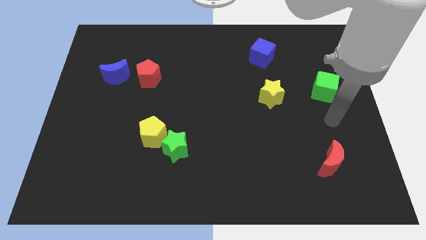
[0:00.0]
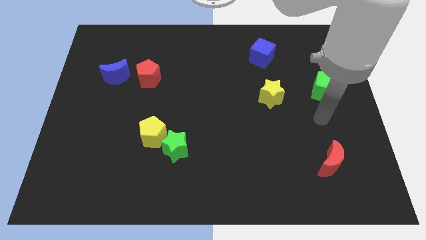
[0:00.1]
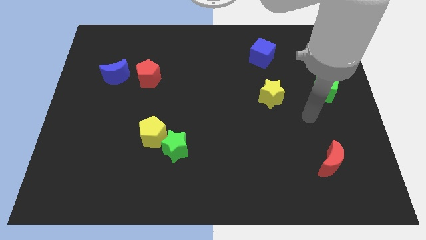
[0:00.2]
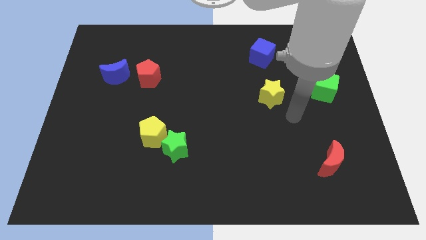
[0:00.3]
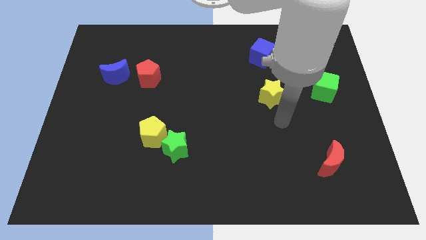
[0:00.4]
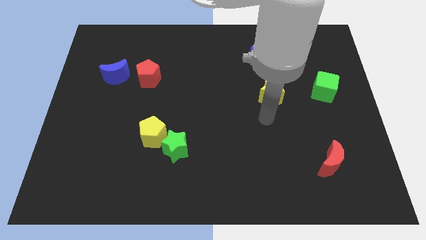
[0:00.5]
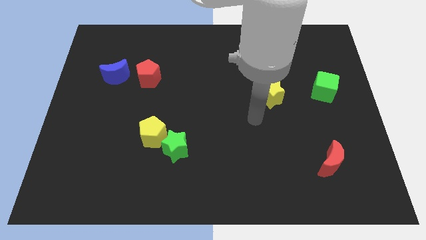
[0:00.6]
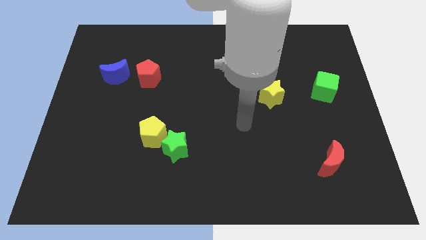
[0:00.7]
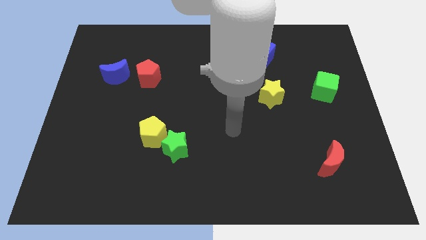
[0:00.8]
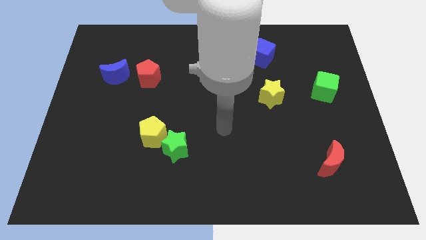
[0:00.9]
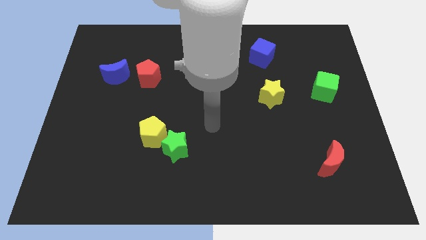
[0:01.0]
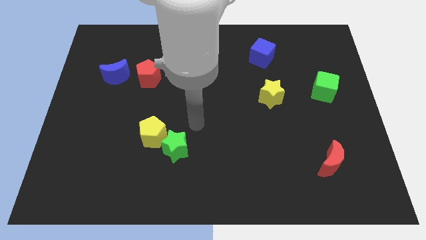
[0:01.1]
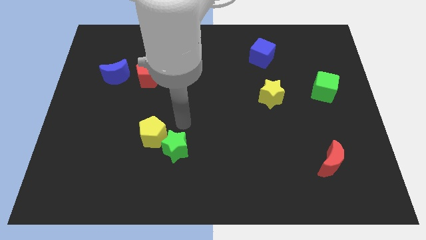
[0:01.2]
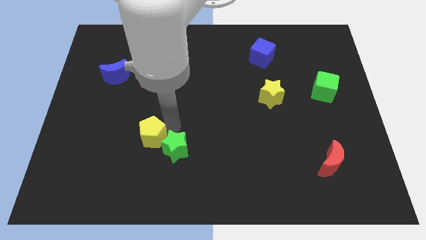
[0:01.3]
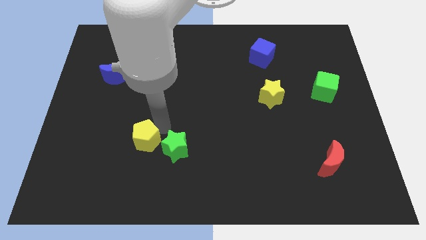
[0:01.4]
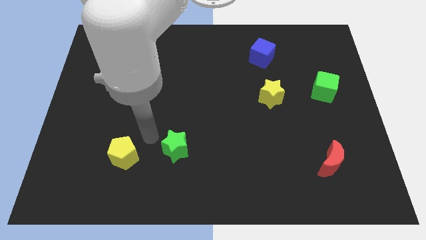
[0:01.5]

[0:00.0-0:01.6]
pull the green star apart from the yellow pentagon

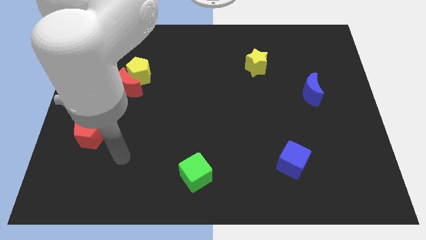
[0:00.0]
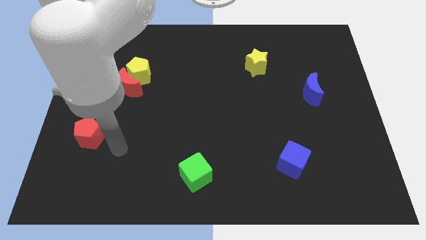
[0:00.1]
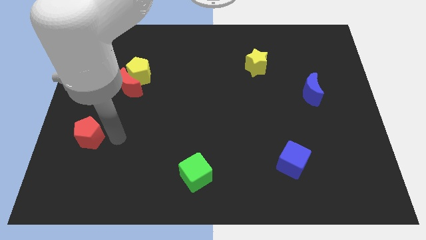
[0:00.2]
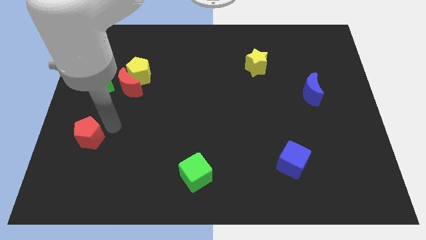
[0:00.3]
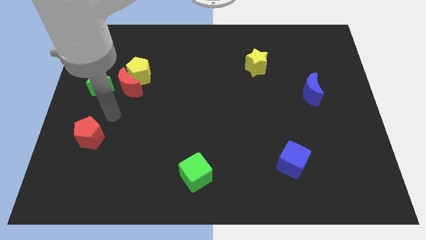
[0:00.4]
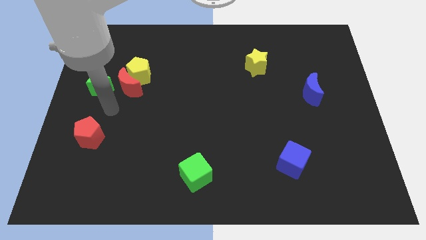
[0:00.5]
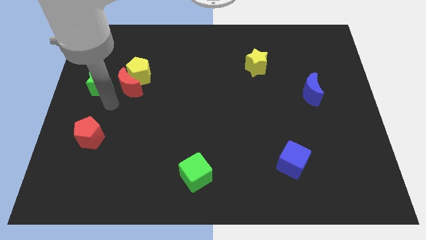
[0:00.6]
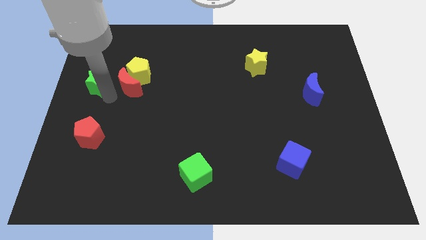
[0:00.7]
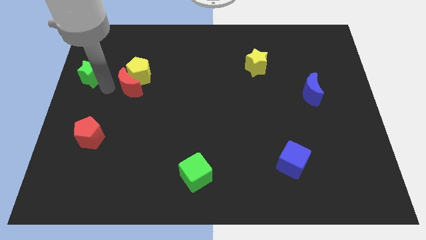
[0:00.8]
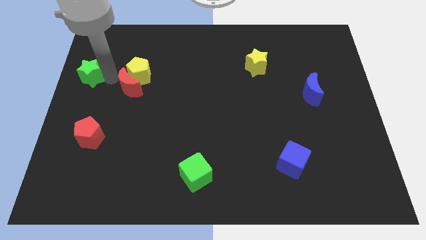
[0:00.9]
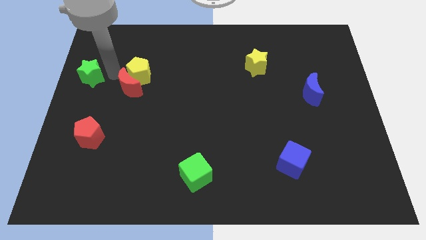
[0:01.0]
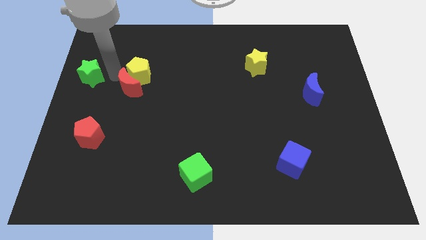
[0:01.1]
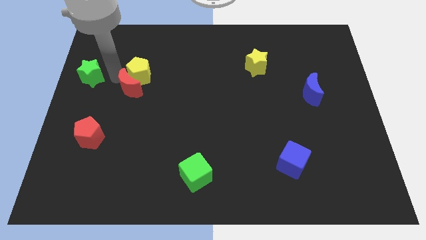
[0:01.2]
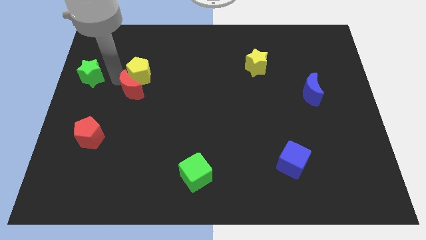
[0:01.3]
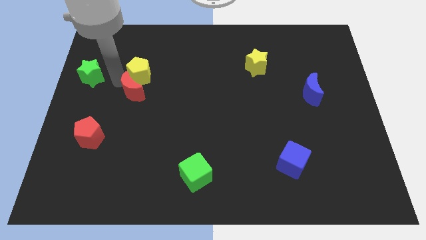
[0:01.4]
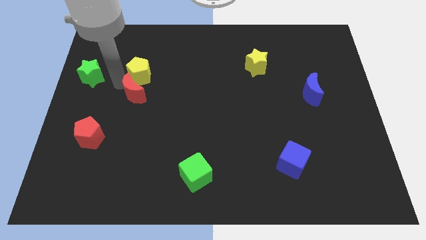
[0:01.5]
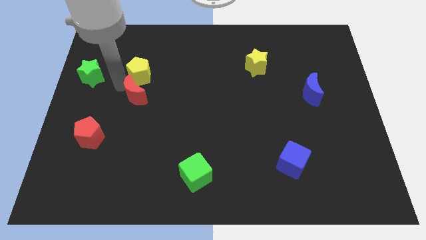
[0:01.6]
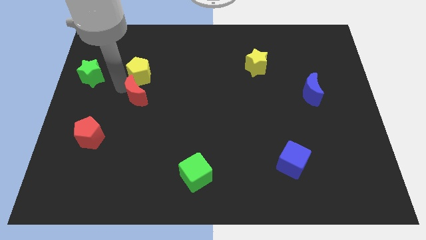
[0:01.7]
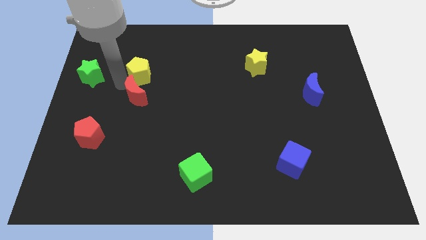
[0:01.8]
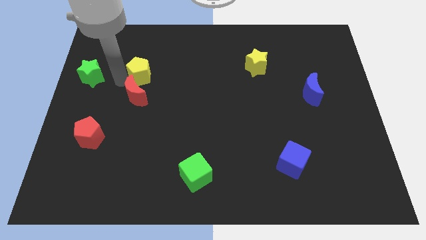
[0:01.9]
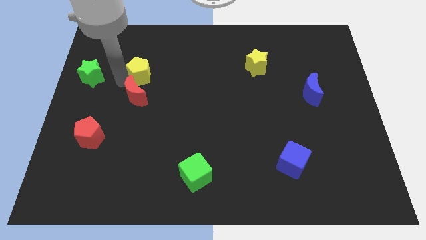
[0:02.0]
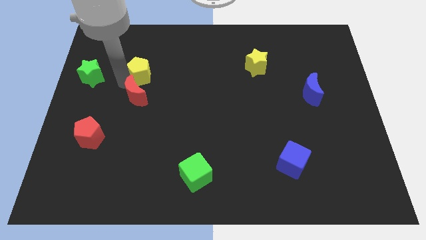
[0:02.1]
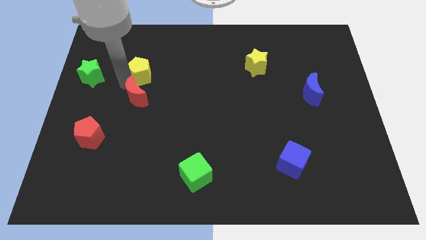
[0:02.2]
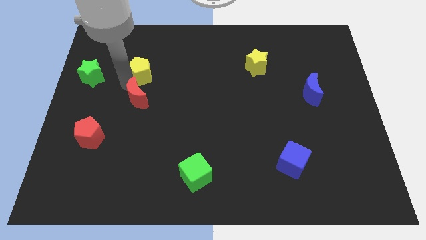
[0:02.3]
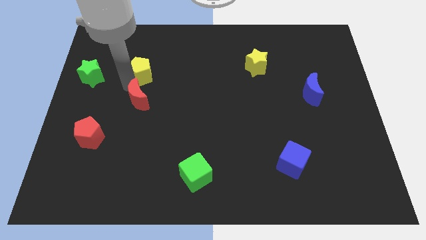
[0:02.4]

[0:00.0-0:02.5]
move the red moon away from the yellow pentagon and green star

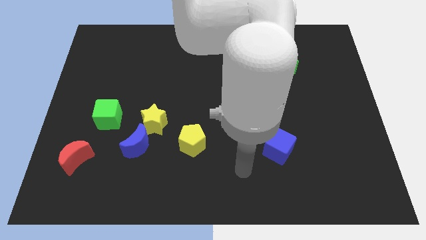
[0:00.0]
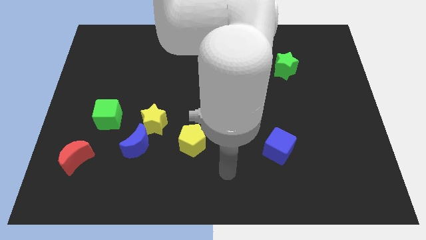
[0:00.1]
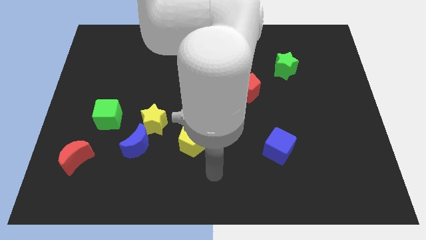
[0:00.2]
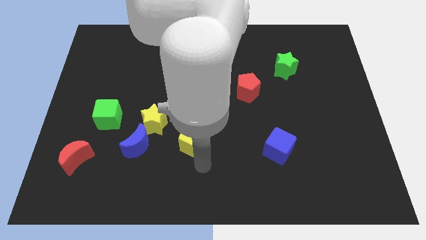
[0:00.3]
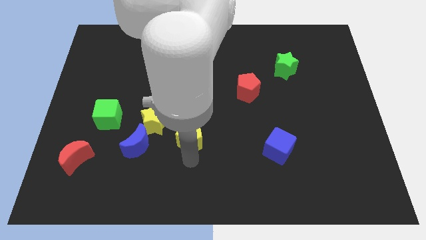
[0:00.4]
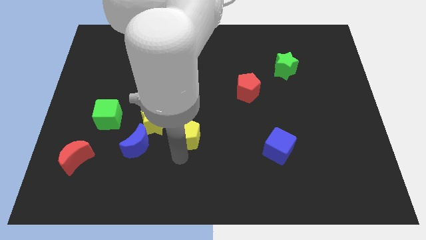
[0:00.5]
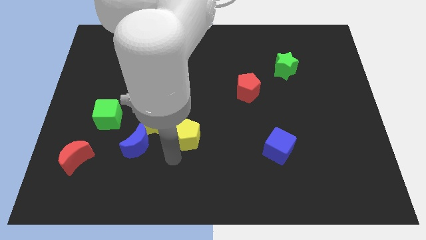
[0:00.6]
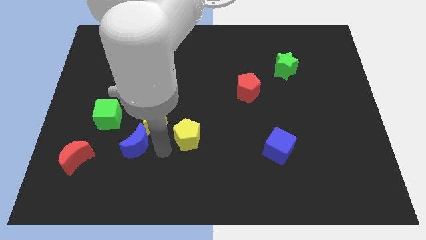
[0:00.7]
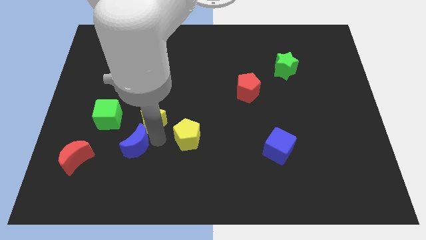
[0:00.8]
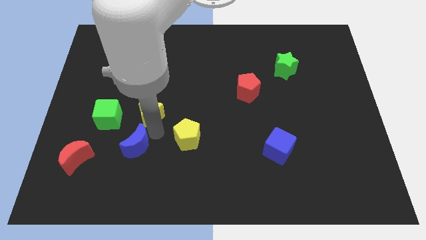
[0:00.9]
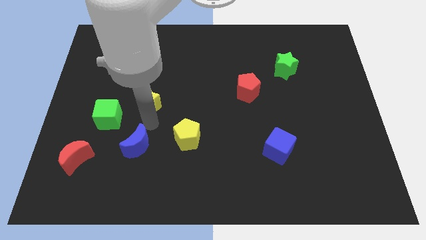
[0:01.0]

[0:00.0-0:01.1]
separate the blue moon from the yellow star

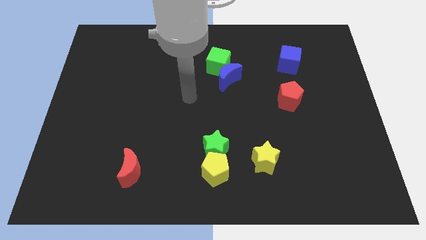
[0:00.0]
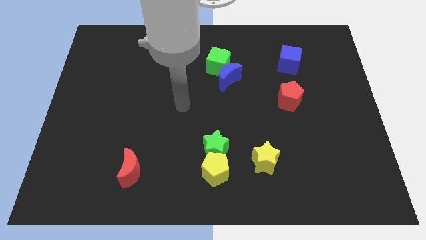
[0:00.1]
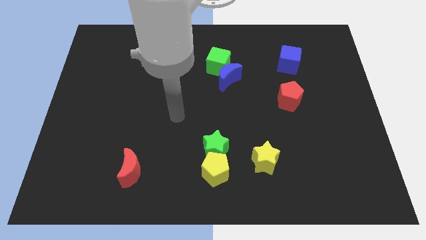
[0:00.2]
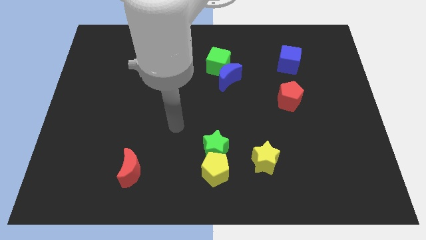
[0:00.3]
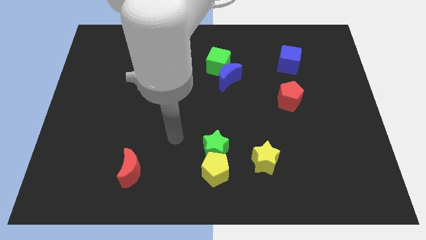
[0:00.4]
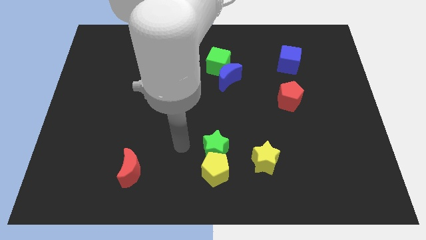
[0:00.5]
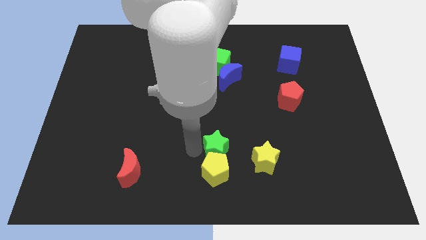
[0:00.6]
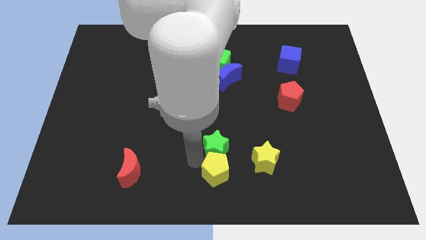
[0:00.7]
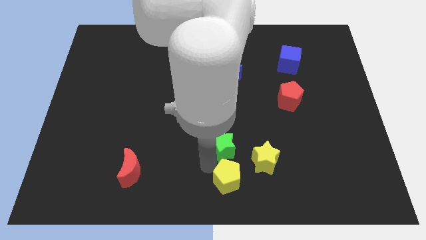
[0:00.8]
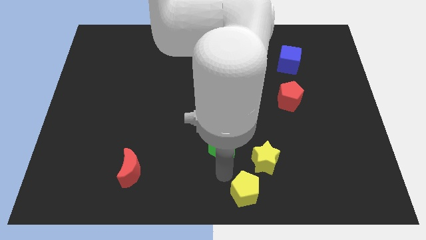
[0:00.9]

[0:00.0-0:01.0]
move the green star away from the yellow pentagon

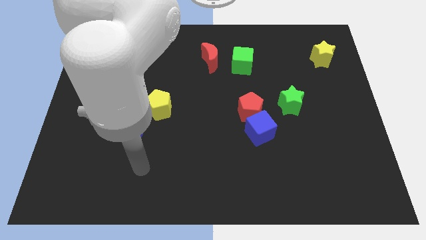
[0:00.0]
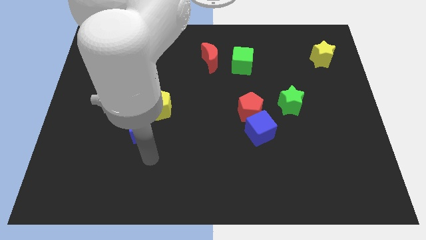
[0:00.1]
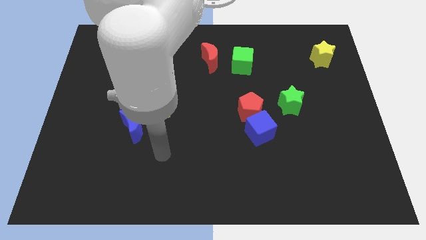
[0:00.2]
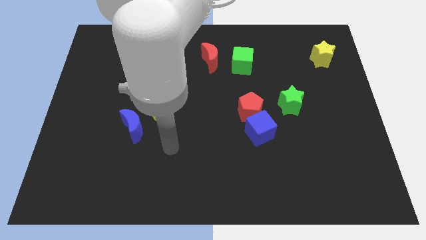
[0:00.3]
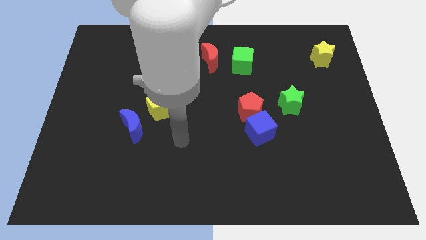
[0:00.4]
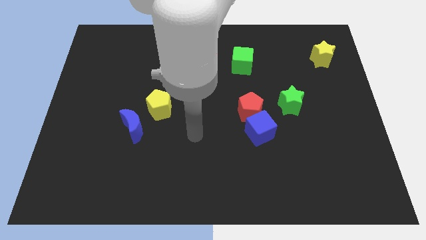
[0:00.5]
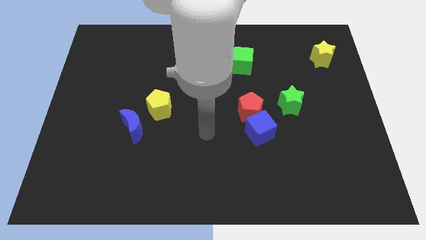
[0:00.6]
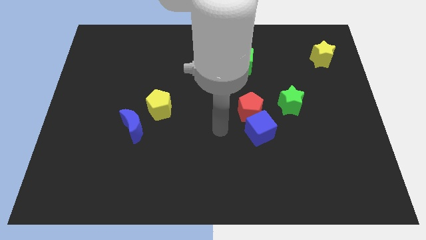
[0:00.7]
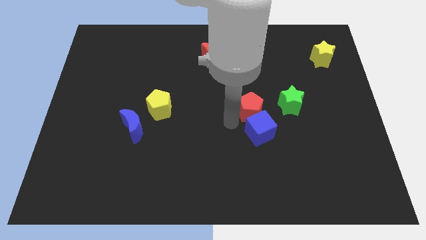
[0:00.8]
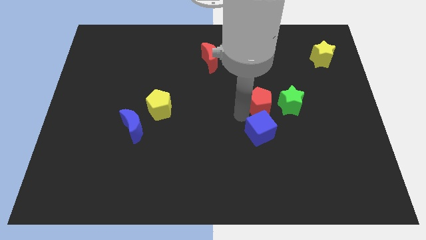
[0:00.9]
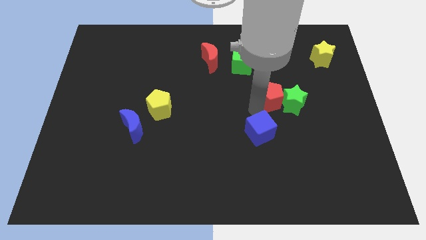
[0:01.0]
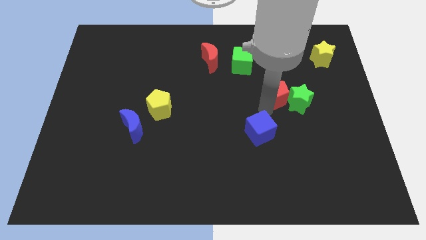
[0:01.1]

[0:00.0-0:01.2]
move the blue cube away from the red pentagon

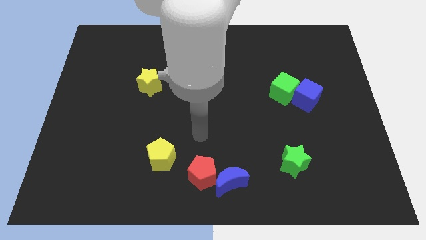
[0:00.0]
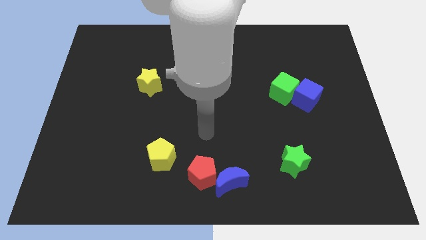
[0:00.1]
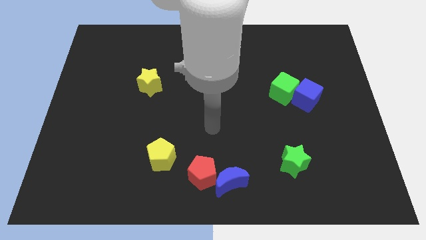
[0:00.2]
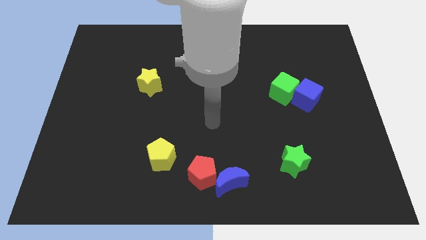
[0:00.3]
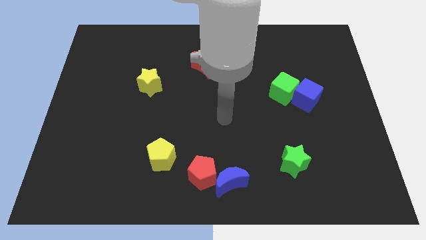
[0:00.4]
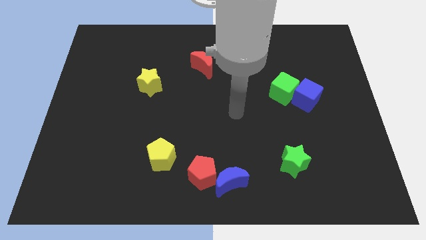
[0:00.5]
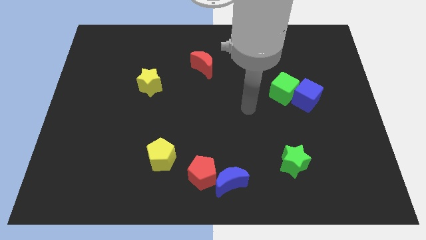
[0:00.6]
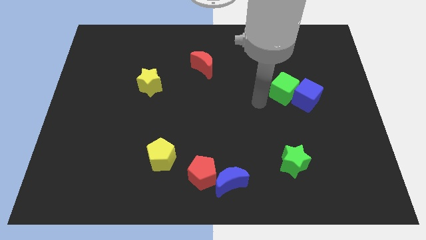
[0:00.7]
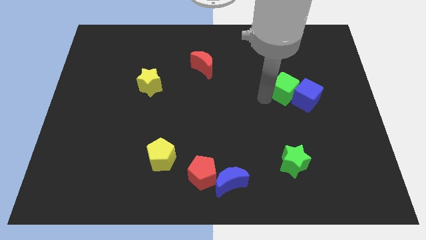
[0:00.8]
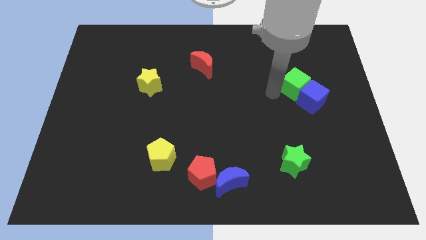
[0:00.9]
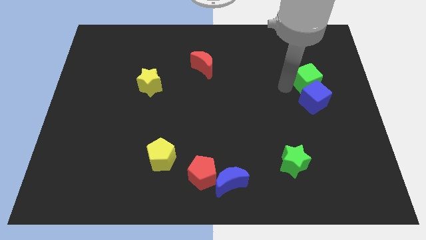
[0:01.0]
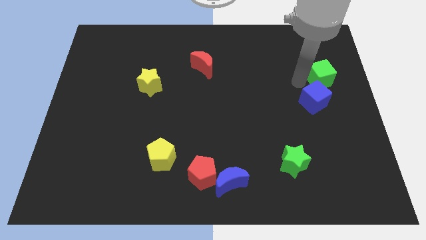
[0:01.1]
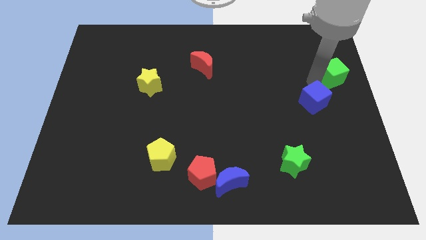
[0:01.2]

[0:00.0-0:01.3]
separate the blue cube from the green cube

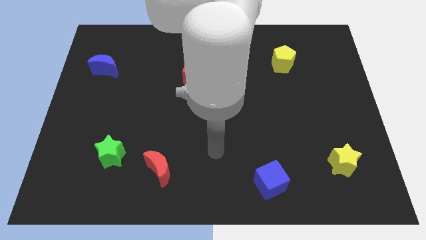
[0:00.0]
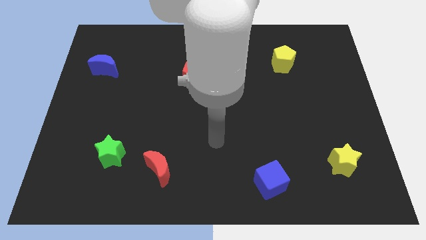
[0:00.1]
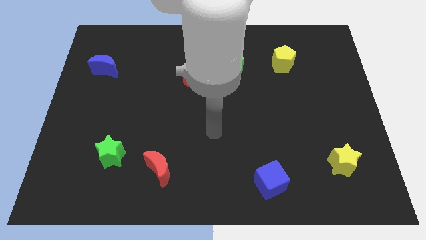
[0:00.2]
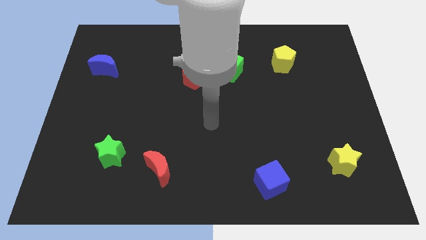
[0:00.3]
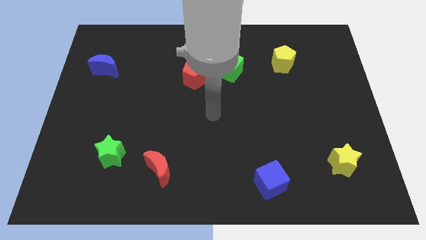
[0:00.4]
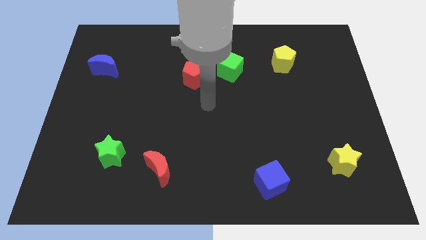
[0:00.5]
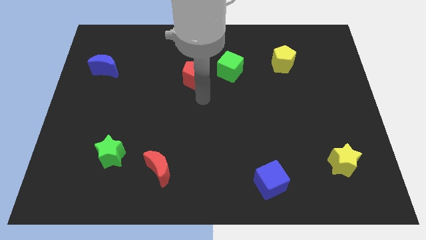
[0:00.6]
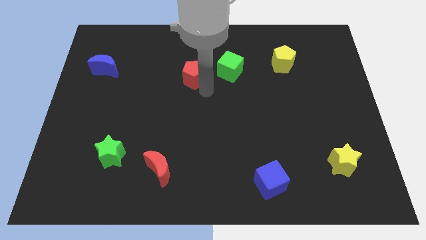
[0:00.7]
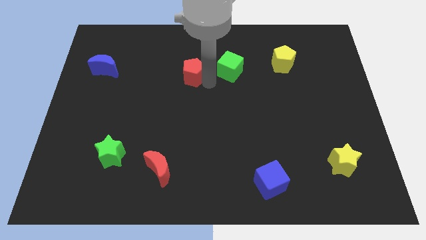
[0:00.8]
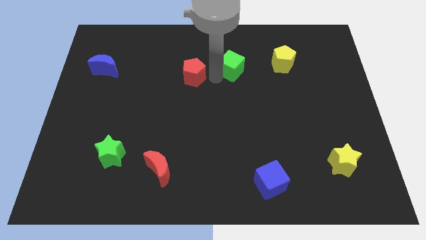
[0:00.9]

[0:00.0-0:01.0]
move the red pentagon away from the green cube
